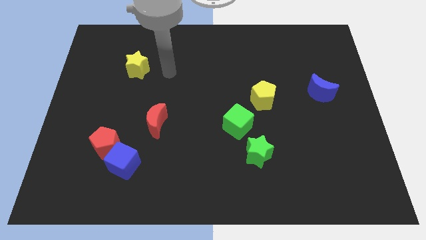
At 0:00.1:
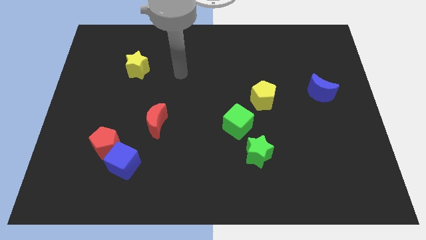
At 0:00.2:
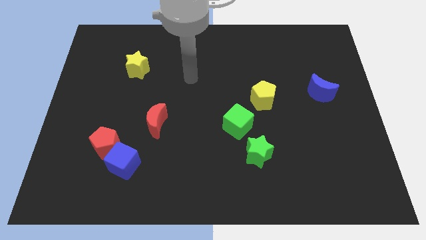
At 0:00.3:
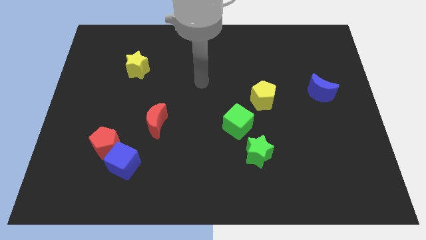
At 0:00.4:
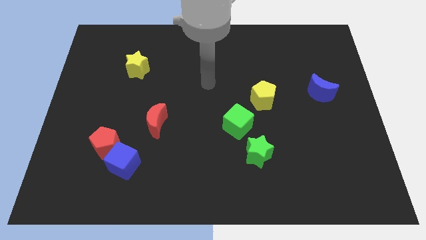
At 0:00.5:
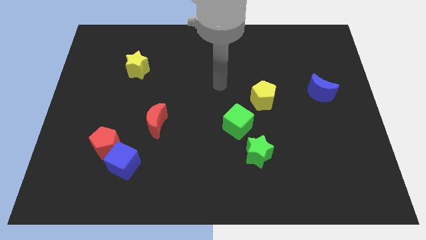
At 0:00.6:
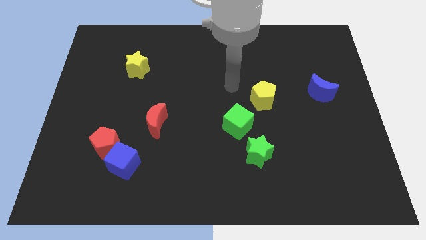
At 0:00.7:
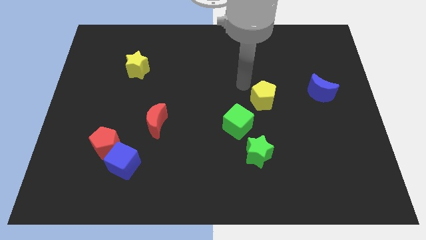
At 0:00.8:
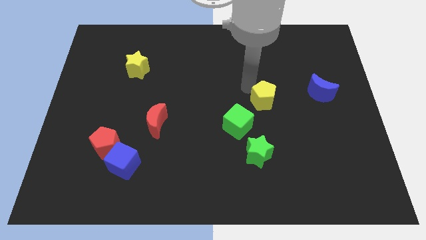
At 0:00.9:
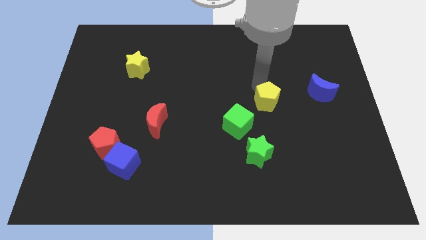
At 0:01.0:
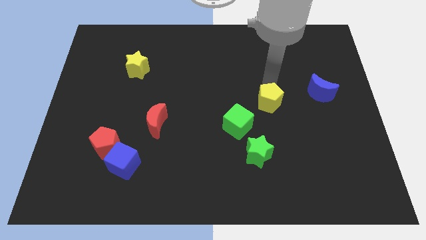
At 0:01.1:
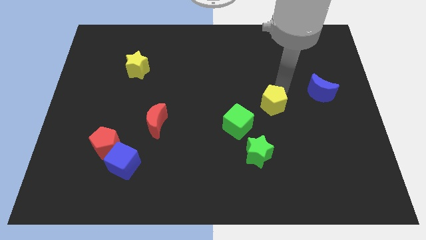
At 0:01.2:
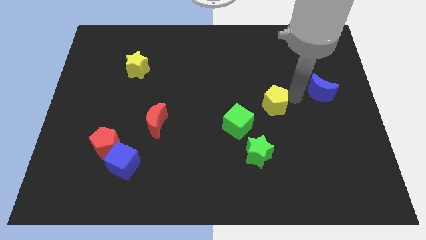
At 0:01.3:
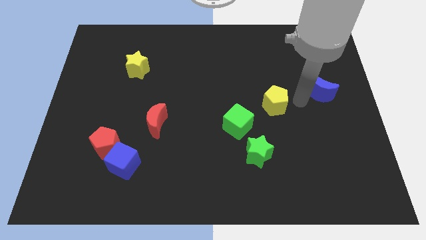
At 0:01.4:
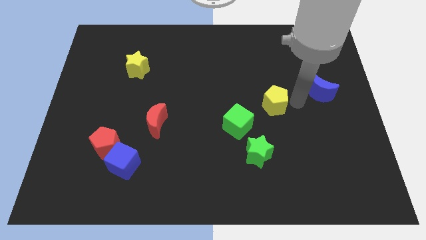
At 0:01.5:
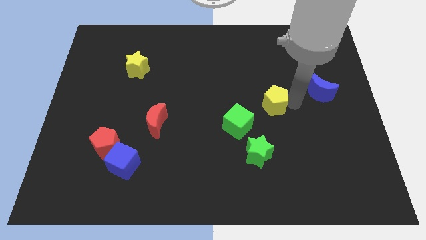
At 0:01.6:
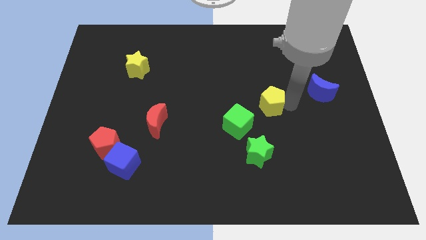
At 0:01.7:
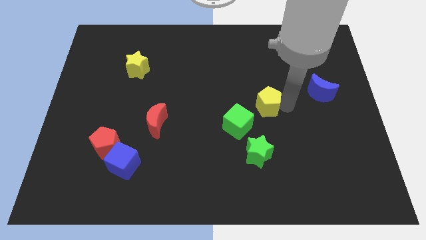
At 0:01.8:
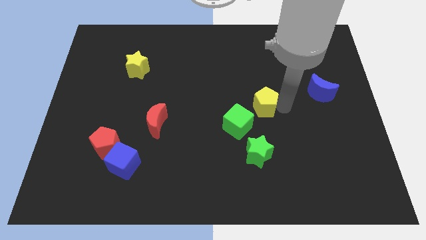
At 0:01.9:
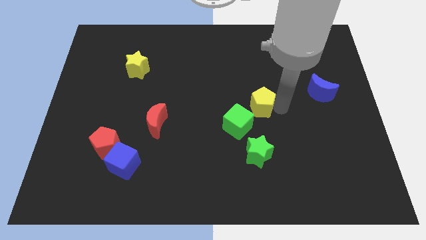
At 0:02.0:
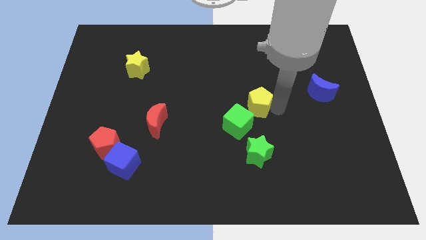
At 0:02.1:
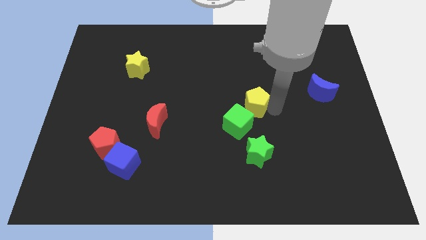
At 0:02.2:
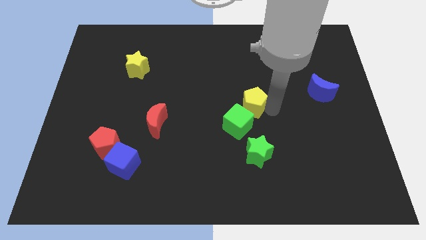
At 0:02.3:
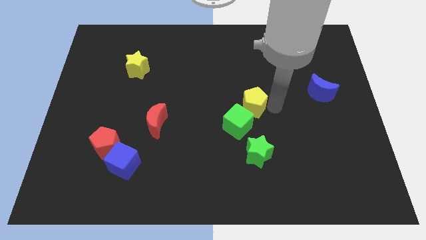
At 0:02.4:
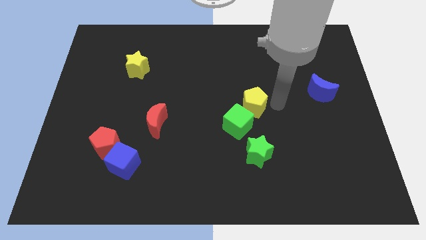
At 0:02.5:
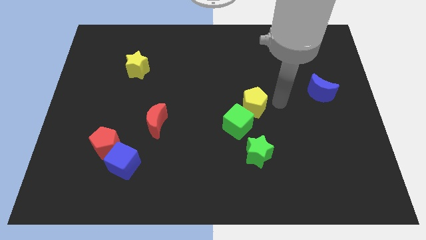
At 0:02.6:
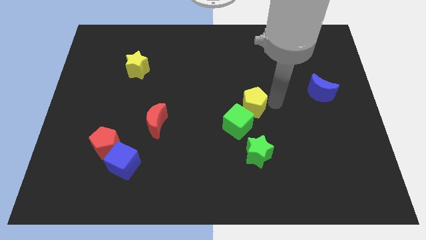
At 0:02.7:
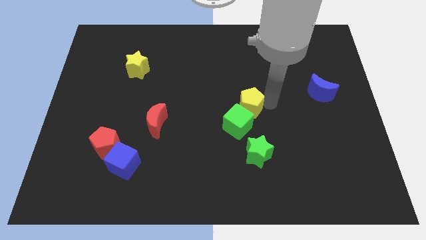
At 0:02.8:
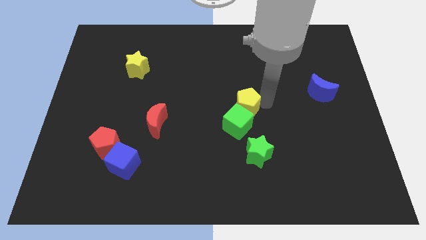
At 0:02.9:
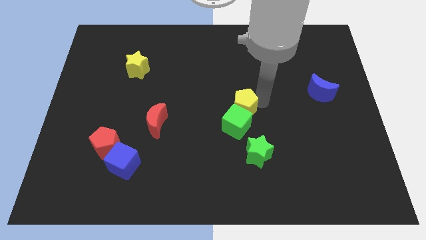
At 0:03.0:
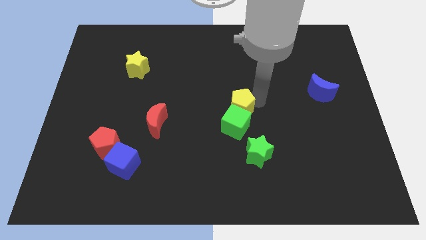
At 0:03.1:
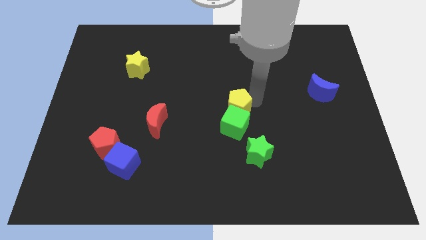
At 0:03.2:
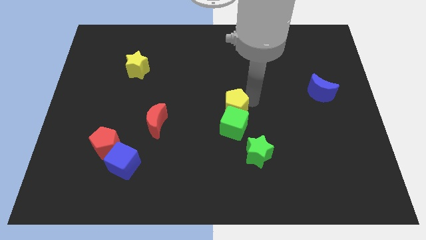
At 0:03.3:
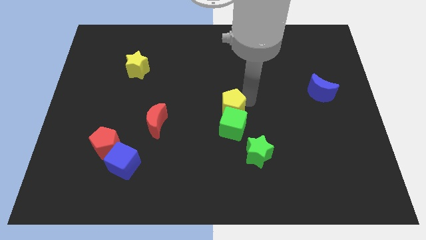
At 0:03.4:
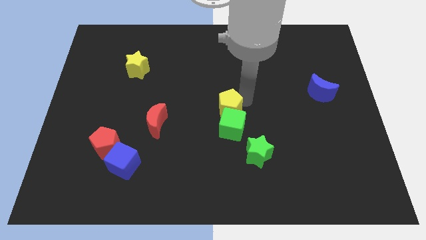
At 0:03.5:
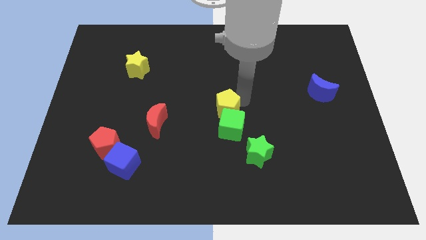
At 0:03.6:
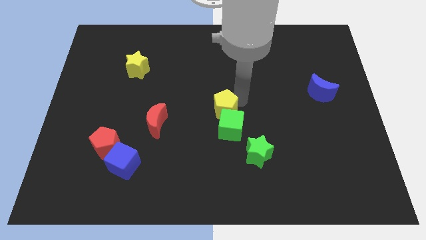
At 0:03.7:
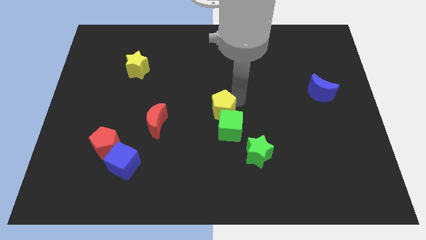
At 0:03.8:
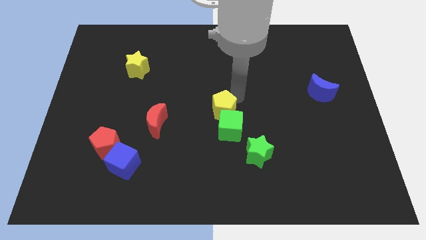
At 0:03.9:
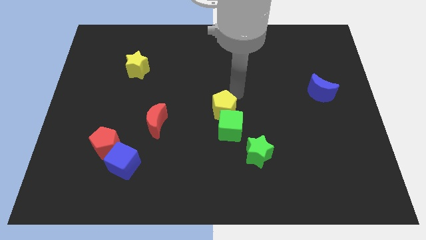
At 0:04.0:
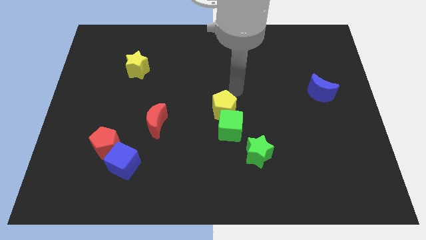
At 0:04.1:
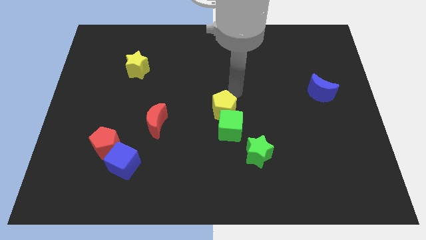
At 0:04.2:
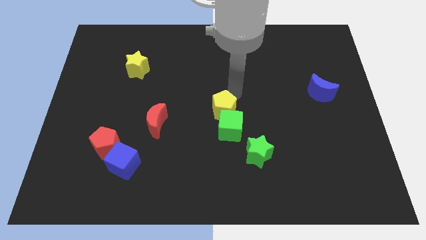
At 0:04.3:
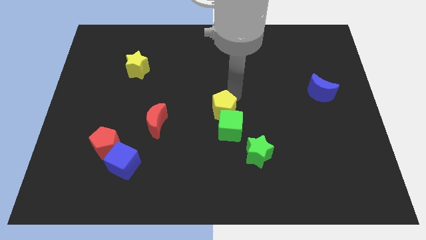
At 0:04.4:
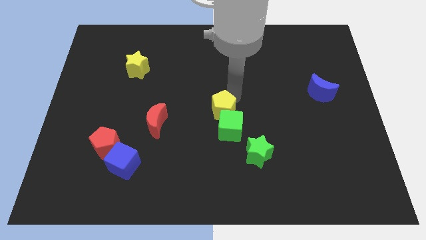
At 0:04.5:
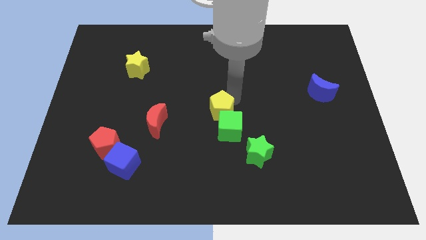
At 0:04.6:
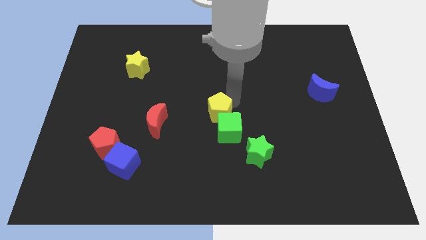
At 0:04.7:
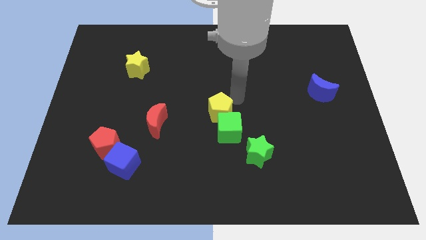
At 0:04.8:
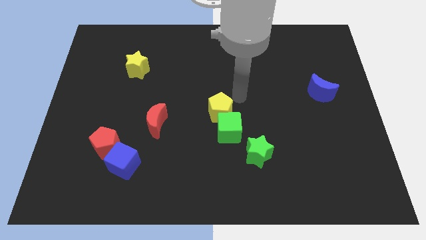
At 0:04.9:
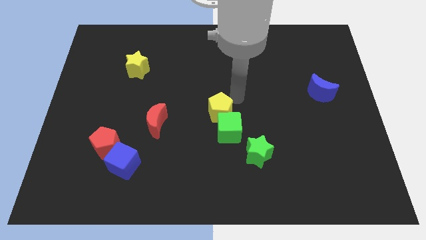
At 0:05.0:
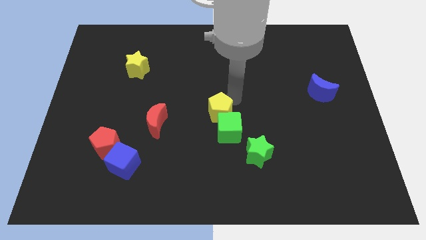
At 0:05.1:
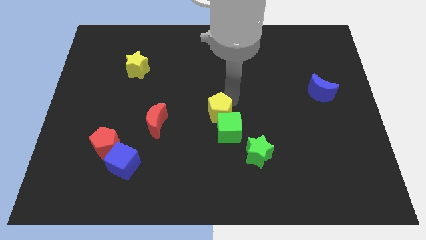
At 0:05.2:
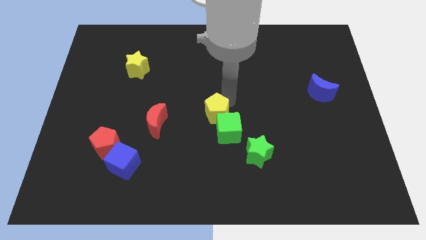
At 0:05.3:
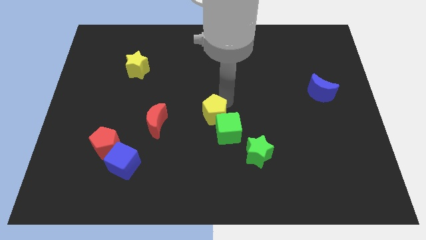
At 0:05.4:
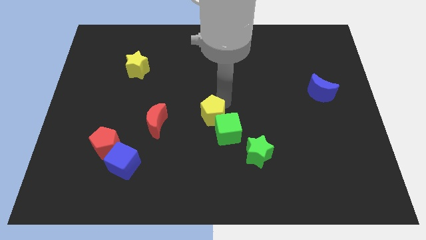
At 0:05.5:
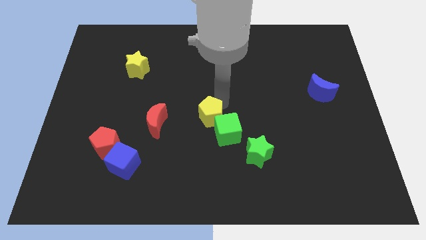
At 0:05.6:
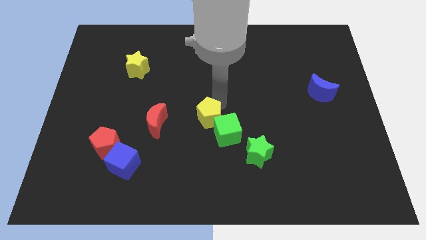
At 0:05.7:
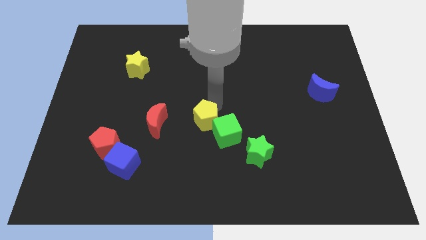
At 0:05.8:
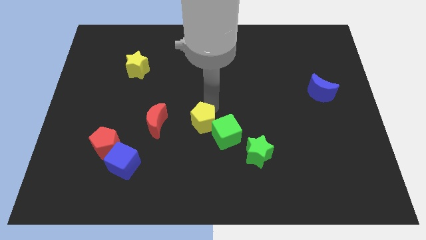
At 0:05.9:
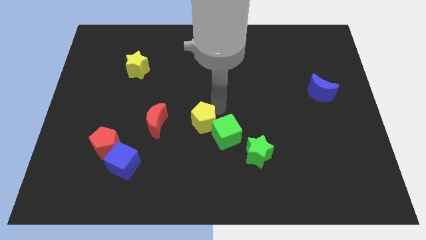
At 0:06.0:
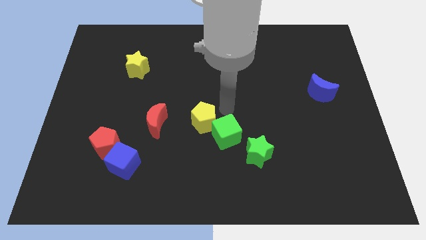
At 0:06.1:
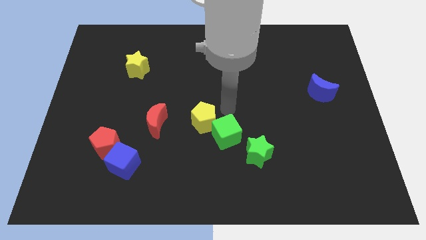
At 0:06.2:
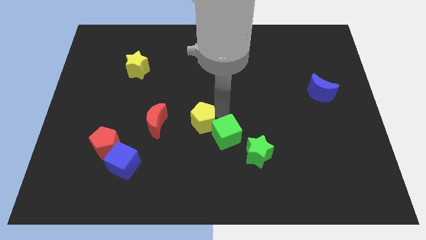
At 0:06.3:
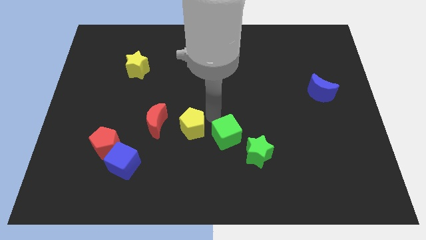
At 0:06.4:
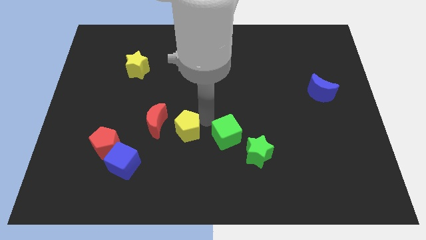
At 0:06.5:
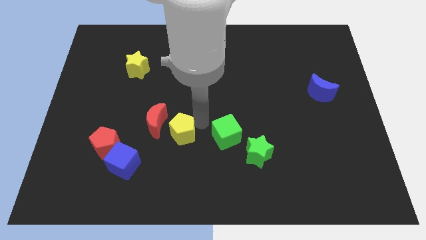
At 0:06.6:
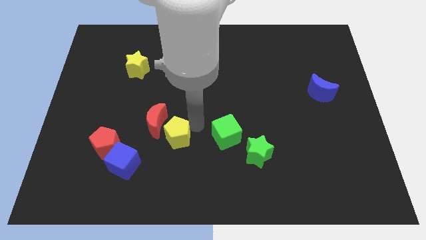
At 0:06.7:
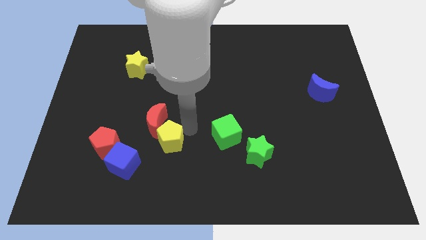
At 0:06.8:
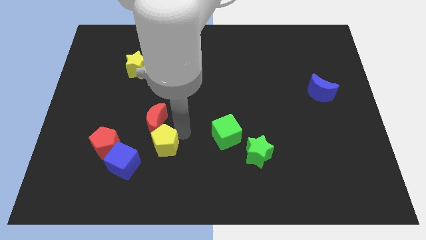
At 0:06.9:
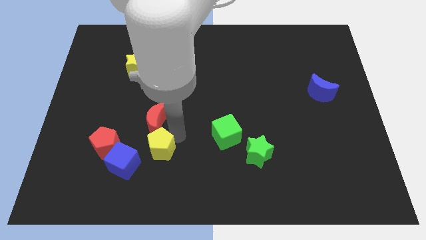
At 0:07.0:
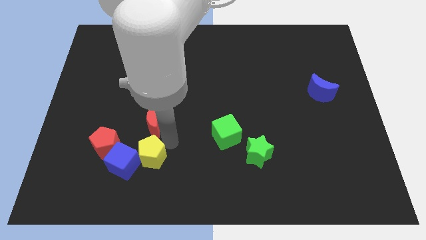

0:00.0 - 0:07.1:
move the yellow pentagon to the blue cube
